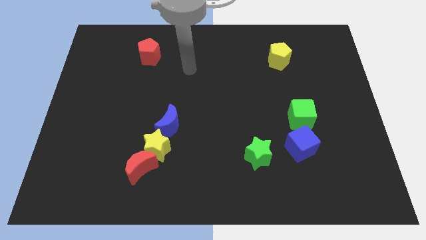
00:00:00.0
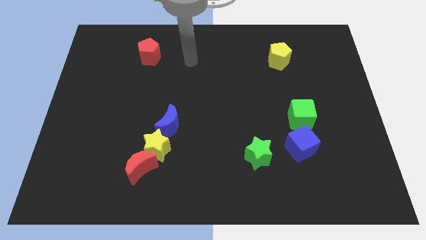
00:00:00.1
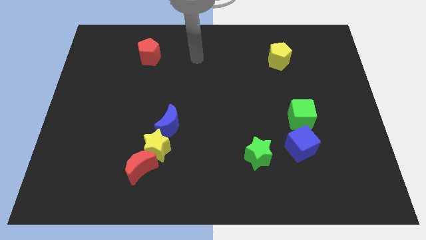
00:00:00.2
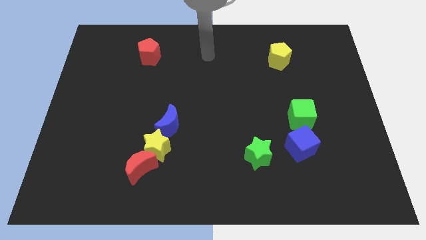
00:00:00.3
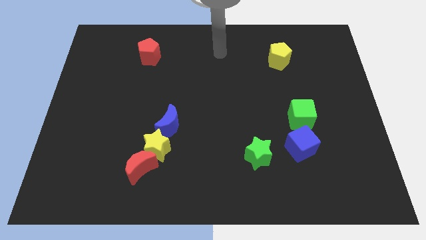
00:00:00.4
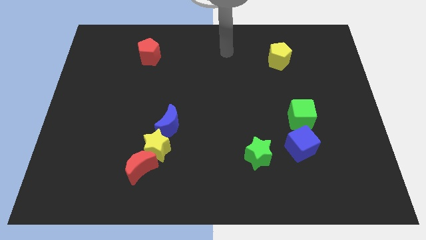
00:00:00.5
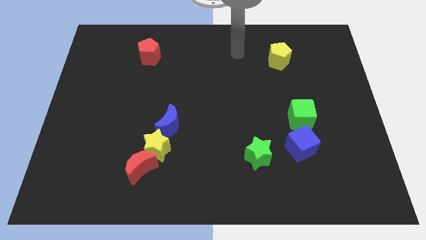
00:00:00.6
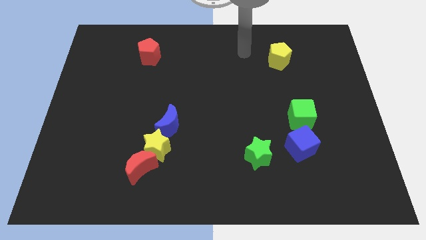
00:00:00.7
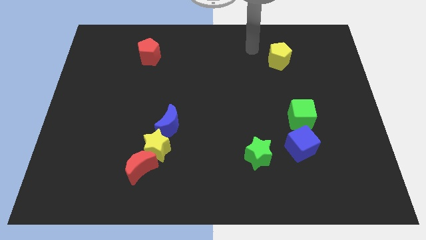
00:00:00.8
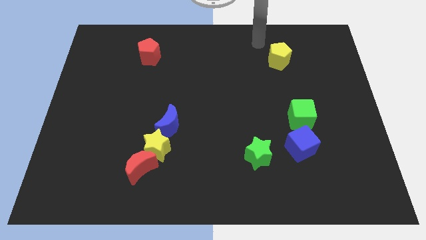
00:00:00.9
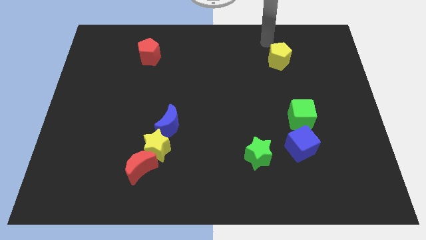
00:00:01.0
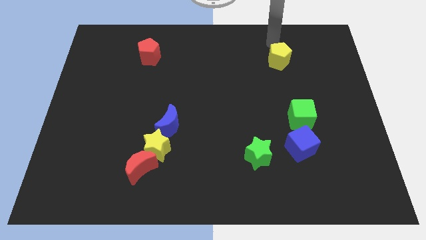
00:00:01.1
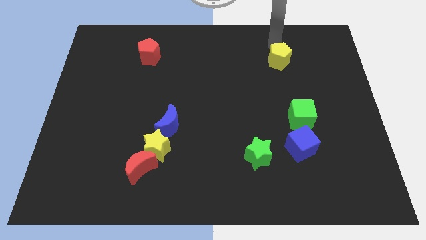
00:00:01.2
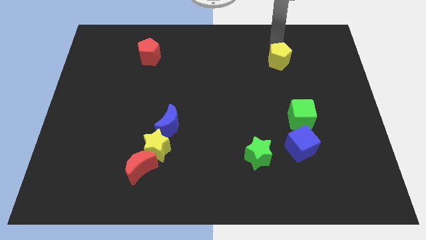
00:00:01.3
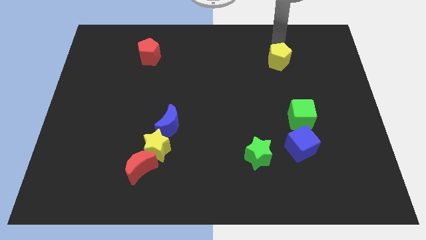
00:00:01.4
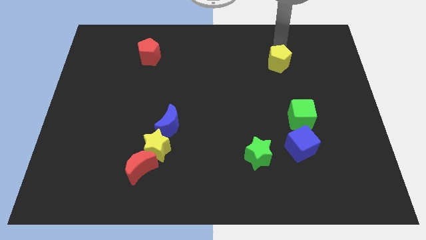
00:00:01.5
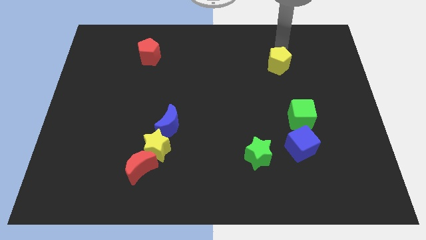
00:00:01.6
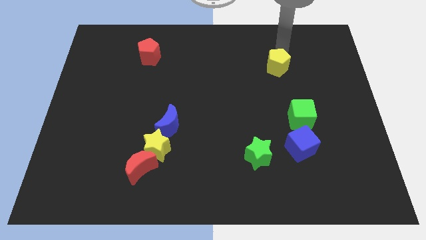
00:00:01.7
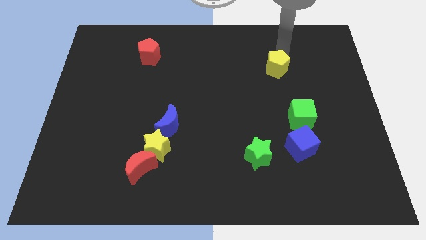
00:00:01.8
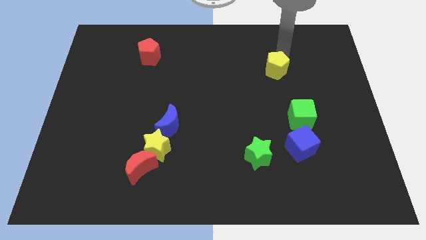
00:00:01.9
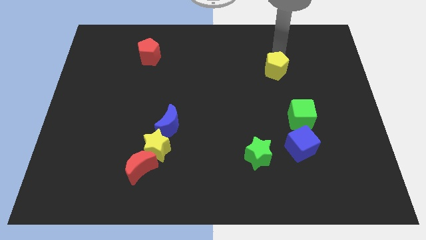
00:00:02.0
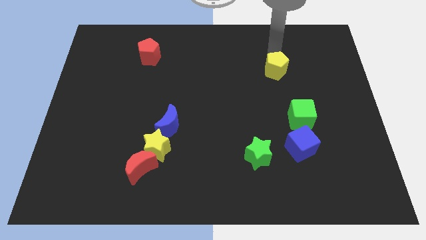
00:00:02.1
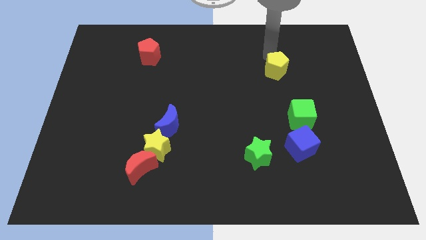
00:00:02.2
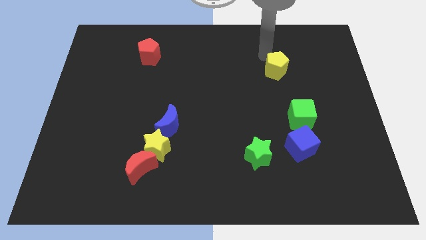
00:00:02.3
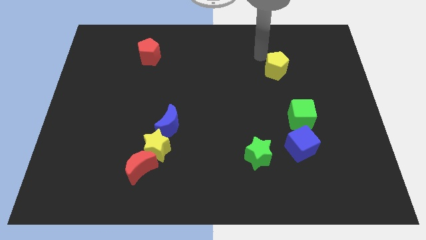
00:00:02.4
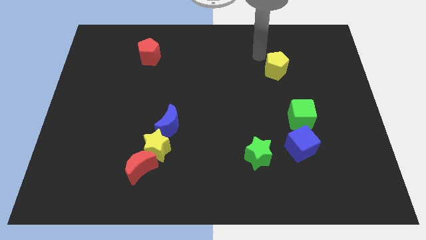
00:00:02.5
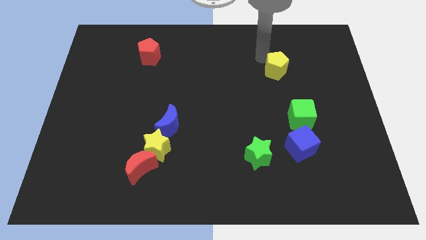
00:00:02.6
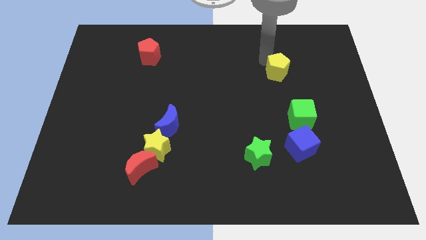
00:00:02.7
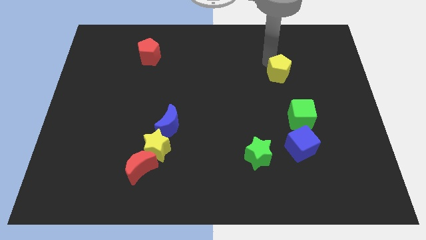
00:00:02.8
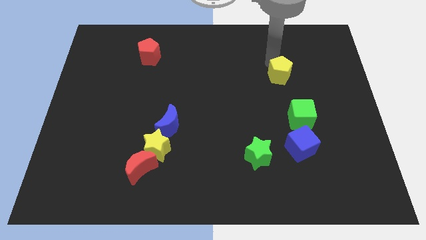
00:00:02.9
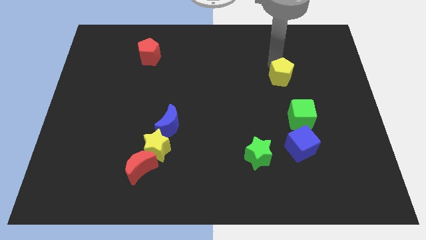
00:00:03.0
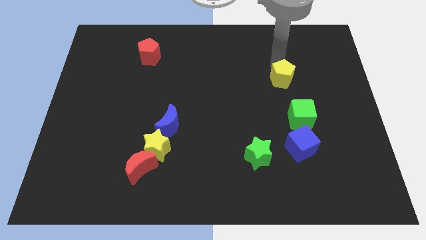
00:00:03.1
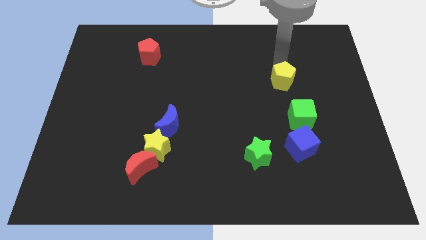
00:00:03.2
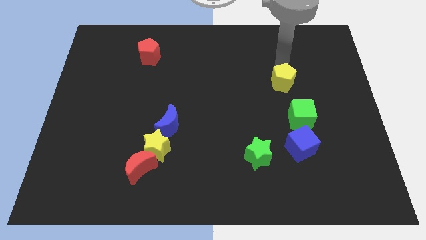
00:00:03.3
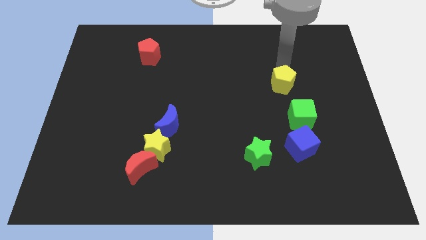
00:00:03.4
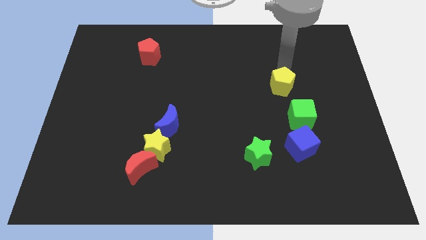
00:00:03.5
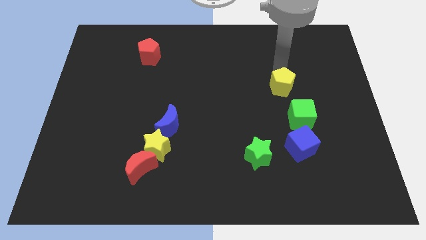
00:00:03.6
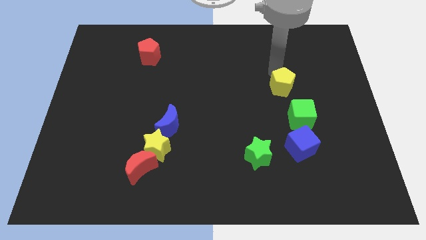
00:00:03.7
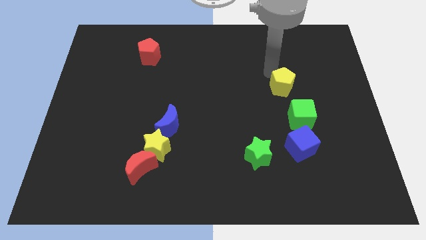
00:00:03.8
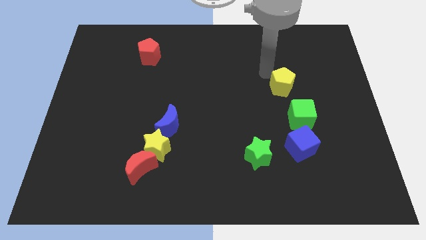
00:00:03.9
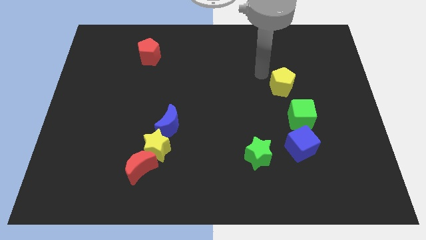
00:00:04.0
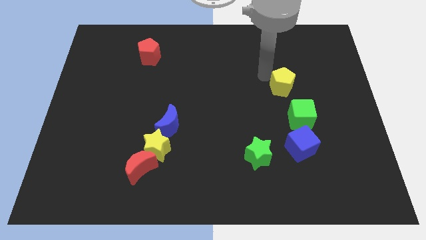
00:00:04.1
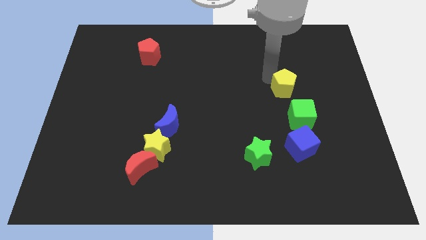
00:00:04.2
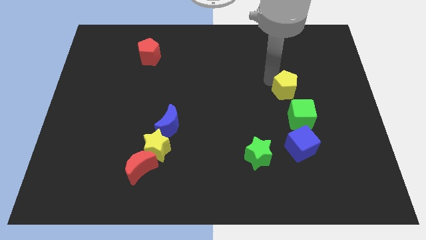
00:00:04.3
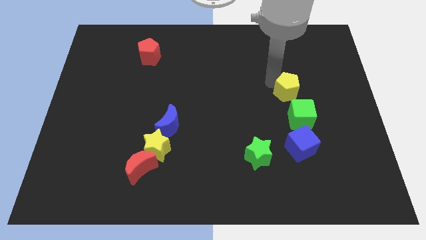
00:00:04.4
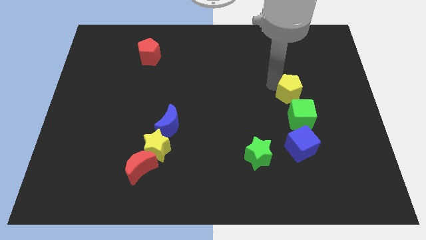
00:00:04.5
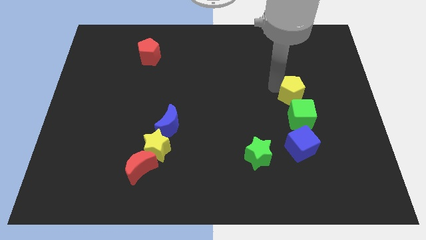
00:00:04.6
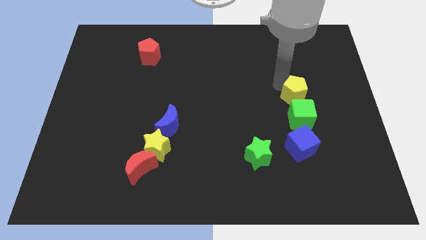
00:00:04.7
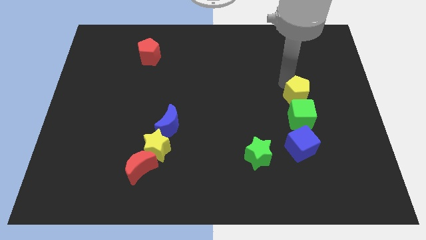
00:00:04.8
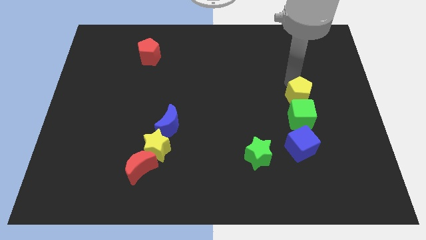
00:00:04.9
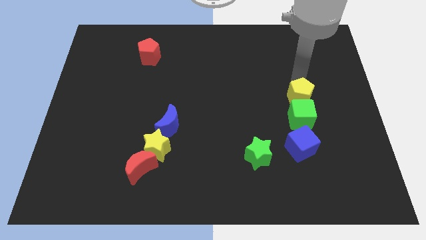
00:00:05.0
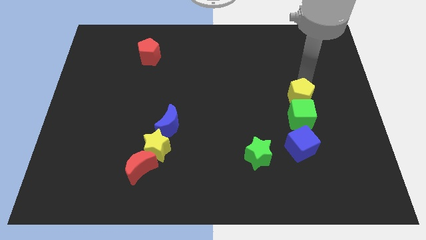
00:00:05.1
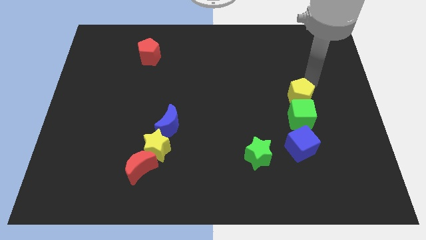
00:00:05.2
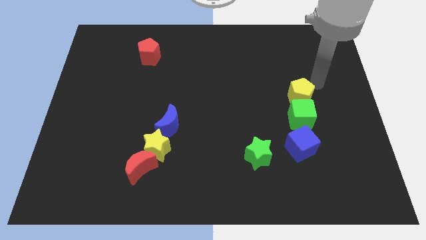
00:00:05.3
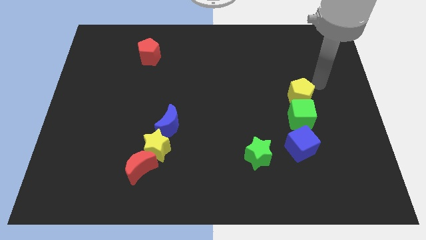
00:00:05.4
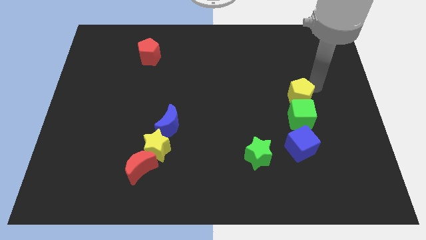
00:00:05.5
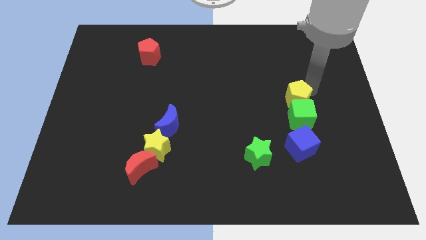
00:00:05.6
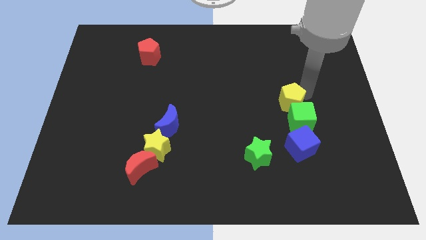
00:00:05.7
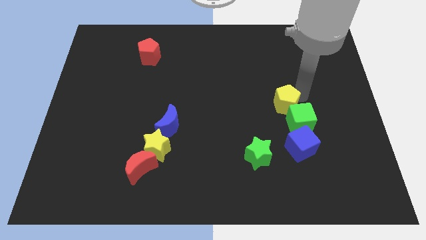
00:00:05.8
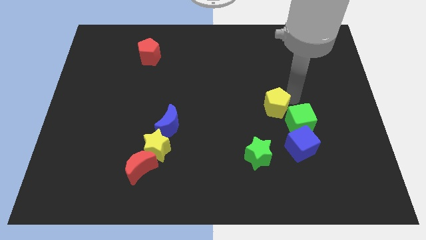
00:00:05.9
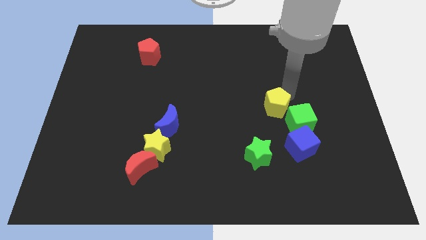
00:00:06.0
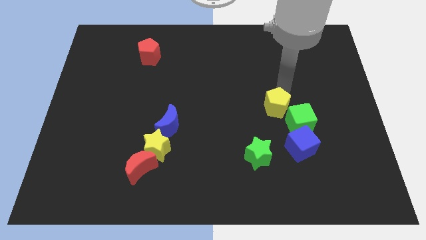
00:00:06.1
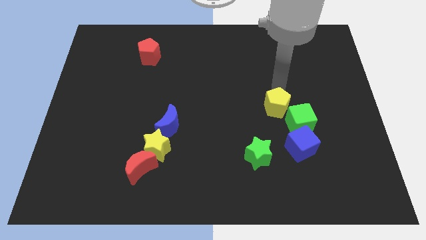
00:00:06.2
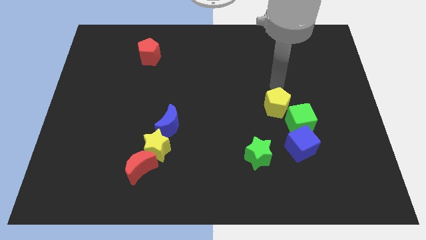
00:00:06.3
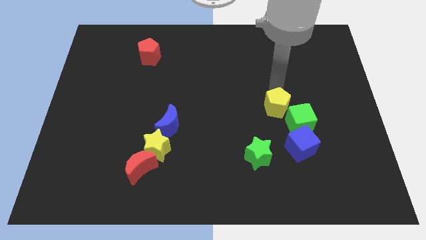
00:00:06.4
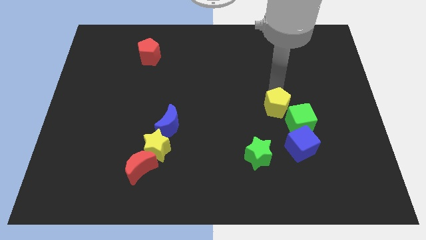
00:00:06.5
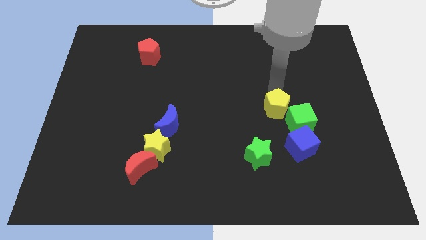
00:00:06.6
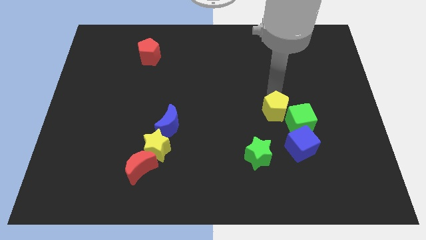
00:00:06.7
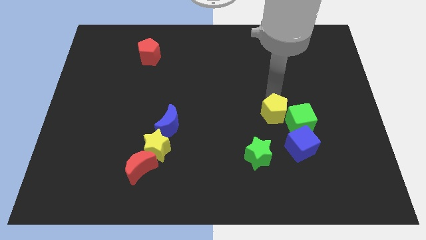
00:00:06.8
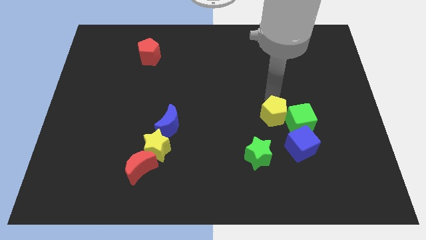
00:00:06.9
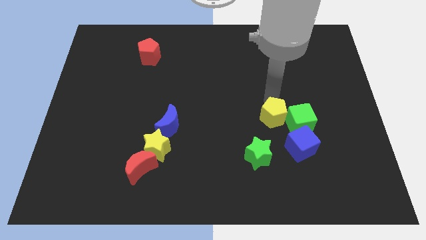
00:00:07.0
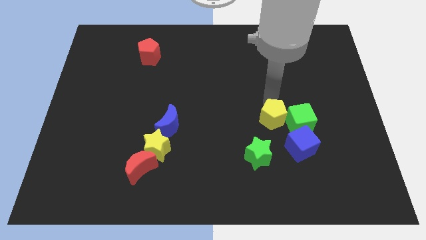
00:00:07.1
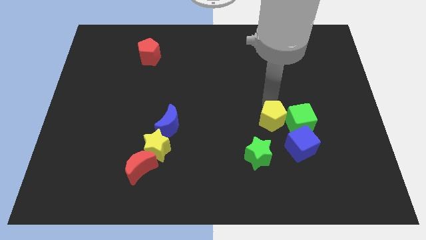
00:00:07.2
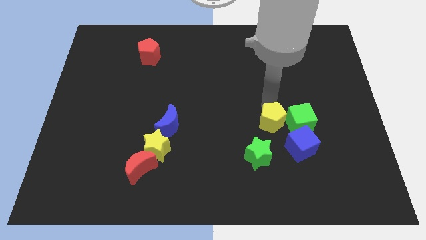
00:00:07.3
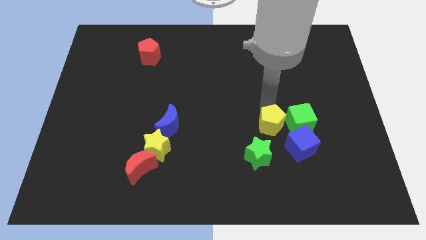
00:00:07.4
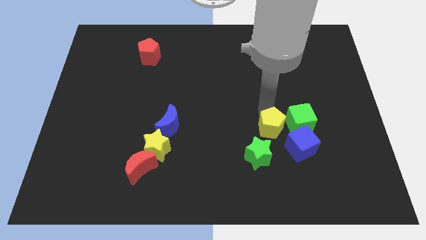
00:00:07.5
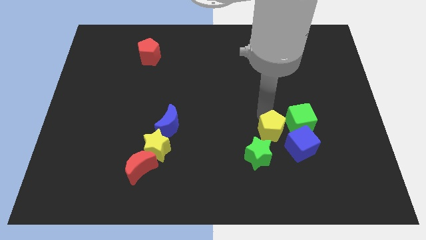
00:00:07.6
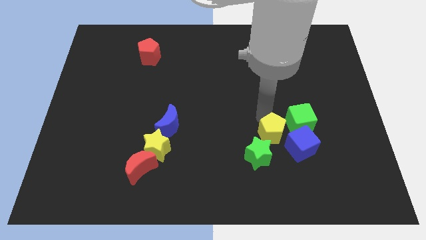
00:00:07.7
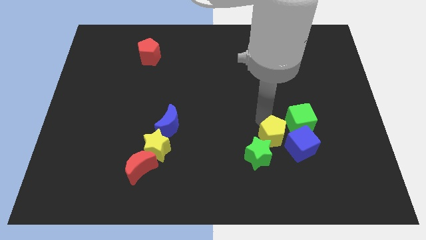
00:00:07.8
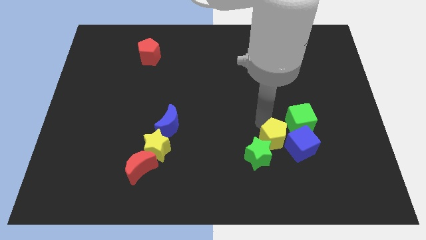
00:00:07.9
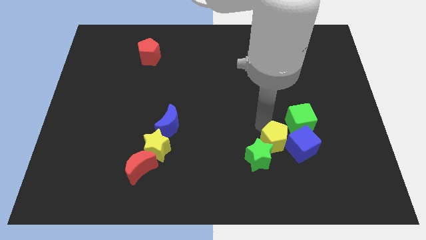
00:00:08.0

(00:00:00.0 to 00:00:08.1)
slide the yellow pentagon next to the blue cube
